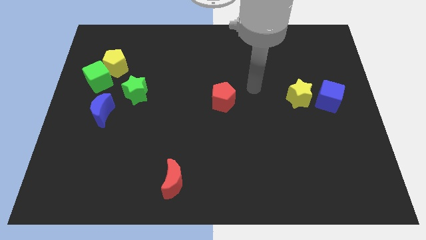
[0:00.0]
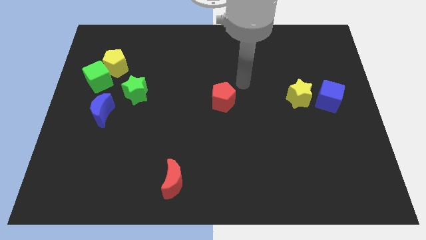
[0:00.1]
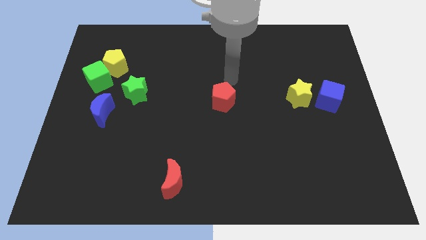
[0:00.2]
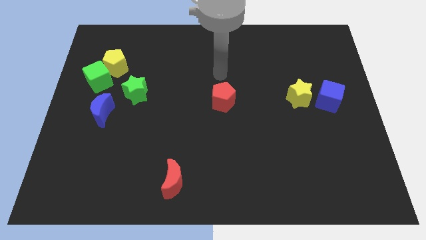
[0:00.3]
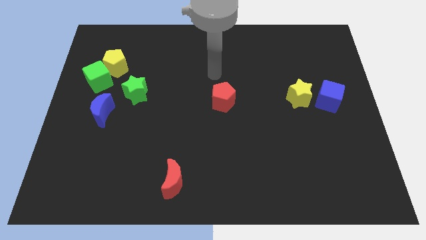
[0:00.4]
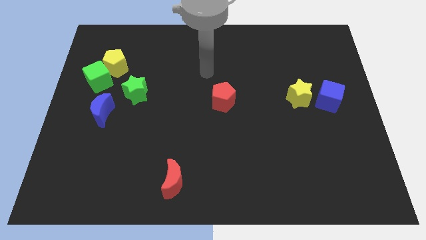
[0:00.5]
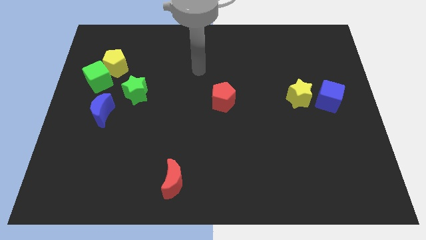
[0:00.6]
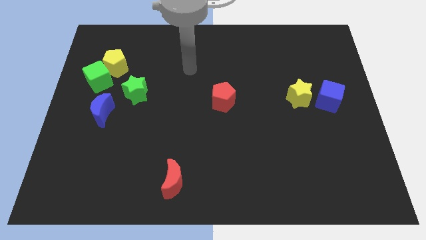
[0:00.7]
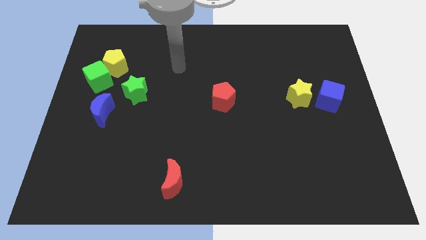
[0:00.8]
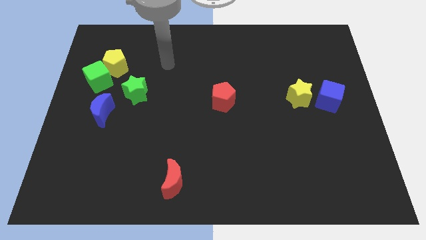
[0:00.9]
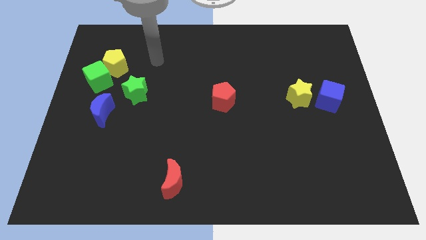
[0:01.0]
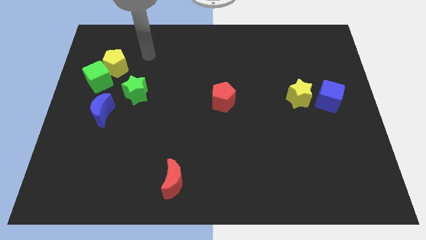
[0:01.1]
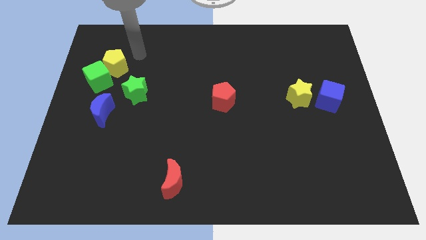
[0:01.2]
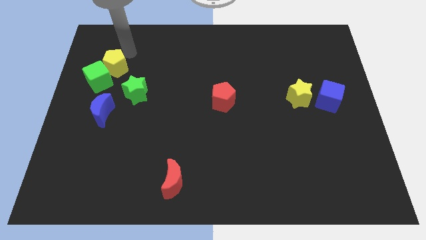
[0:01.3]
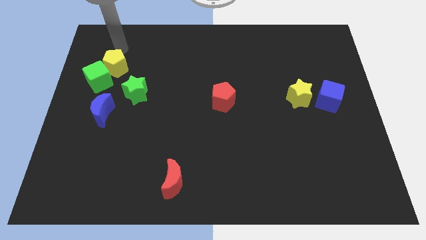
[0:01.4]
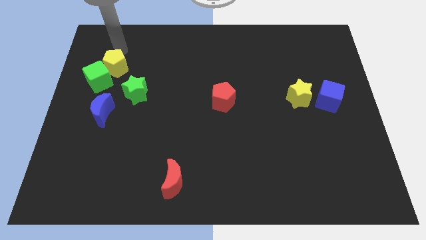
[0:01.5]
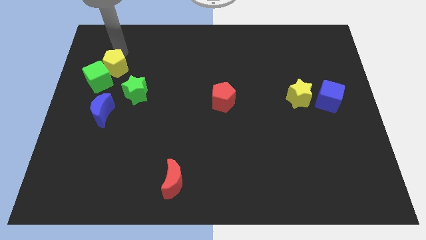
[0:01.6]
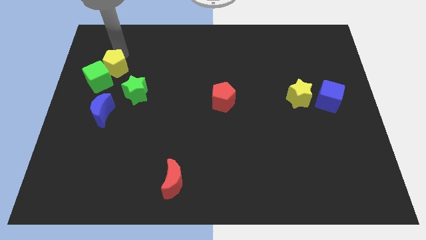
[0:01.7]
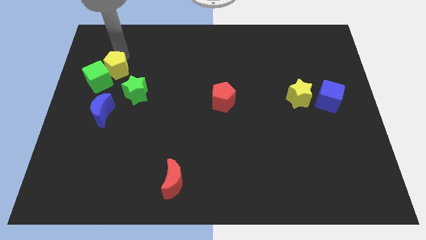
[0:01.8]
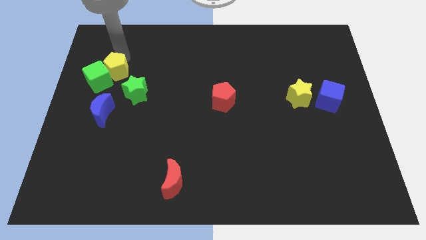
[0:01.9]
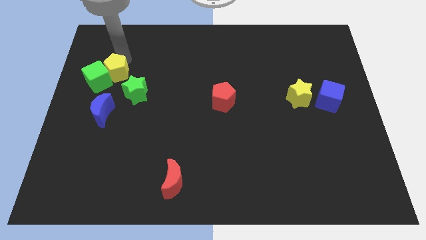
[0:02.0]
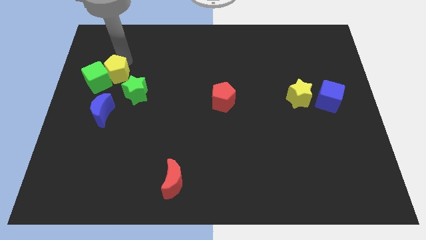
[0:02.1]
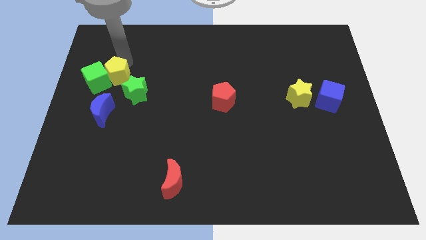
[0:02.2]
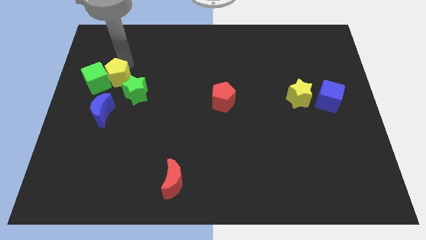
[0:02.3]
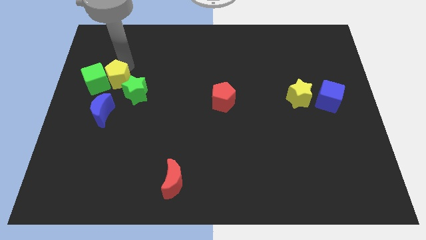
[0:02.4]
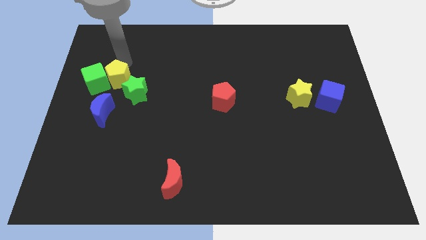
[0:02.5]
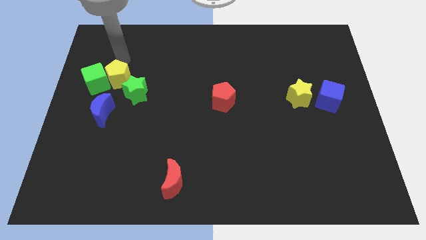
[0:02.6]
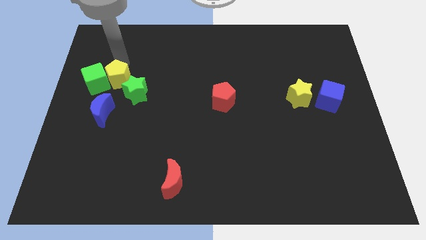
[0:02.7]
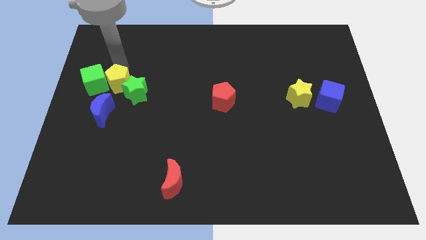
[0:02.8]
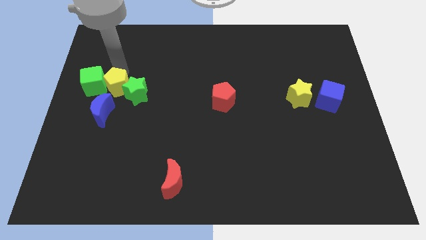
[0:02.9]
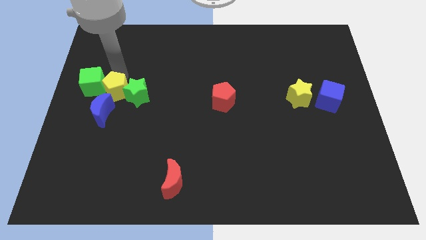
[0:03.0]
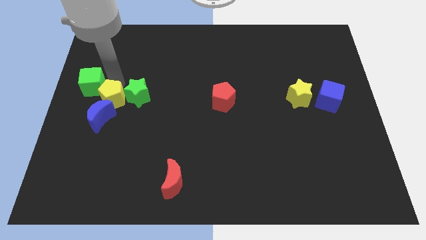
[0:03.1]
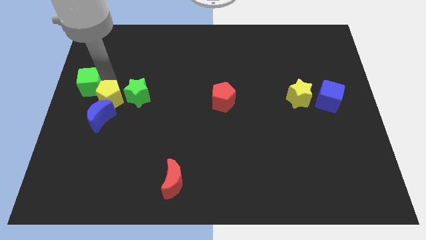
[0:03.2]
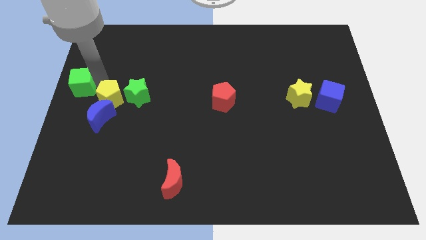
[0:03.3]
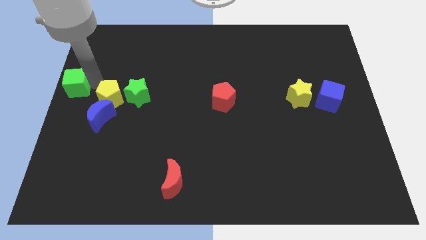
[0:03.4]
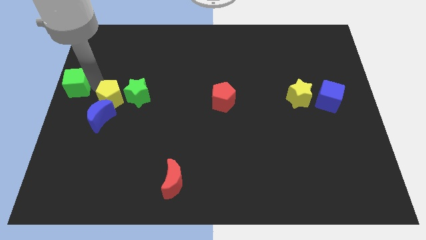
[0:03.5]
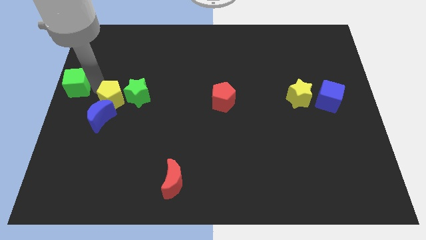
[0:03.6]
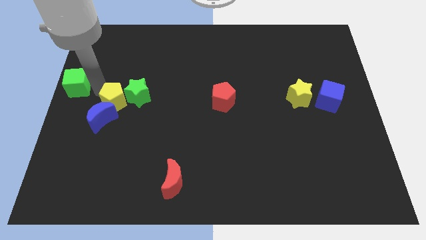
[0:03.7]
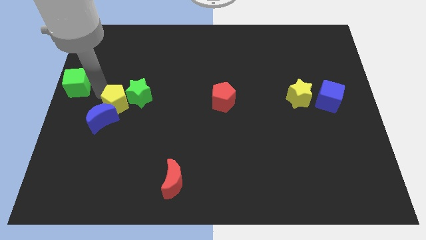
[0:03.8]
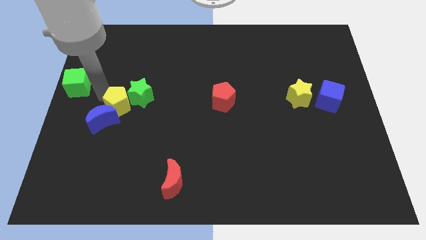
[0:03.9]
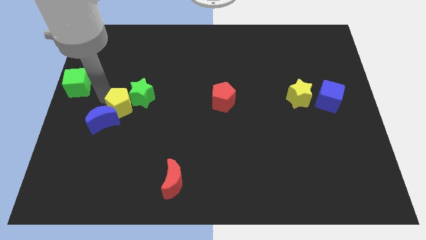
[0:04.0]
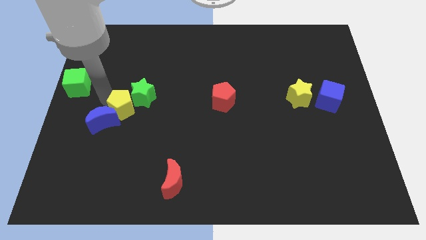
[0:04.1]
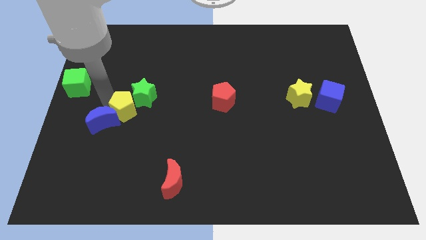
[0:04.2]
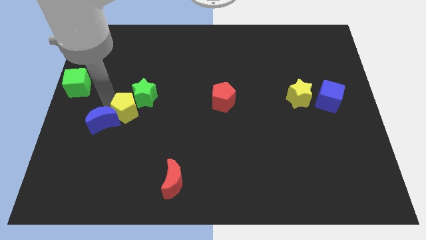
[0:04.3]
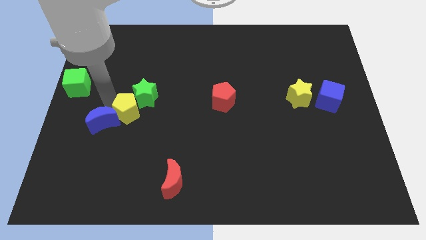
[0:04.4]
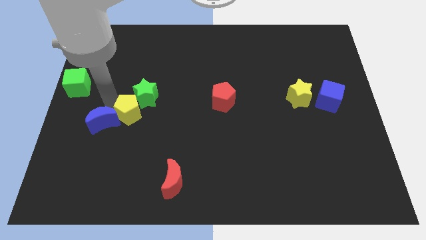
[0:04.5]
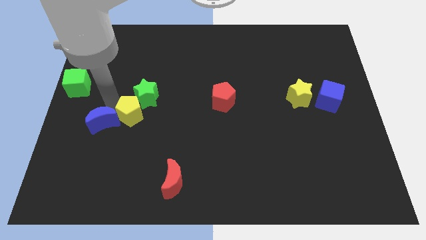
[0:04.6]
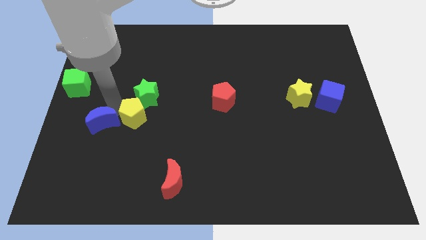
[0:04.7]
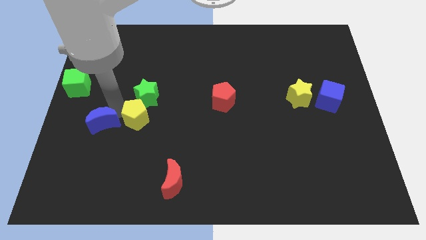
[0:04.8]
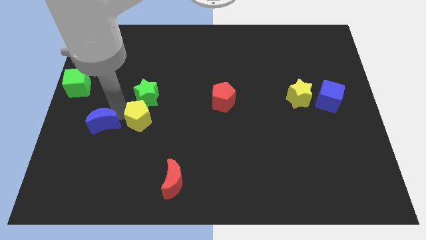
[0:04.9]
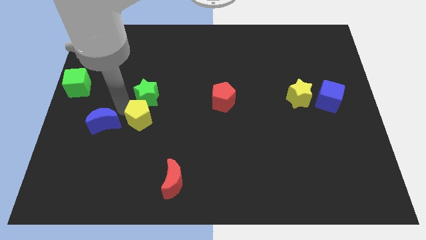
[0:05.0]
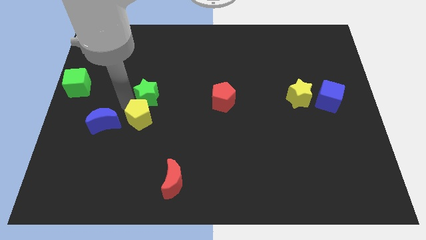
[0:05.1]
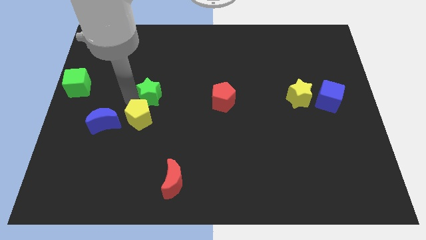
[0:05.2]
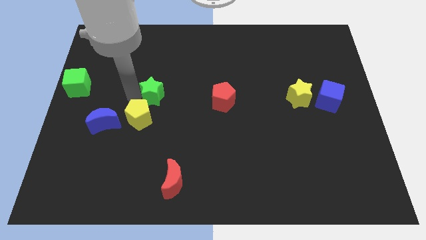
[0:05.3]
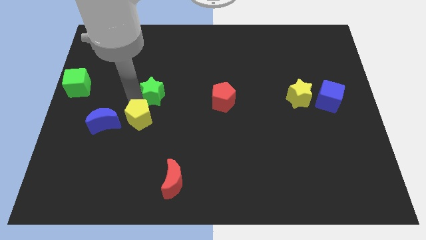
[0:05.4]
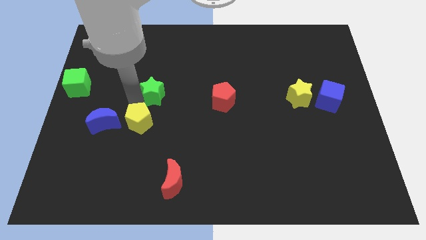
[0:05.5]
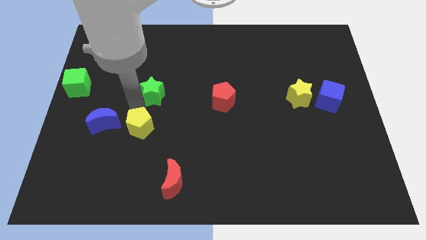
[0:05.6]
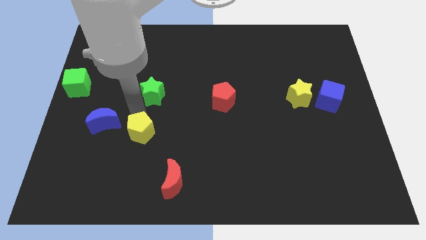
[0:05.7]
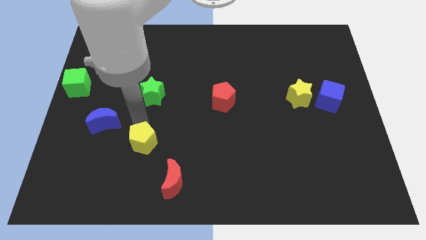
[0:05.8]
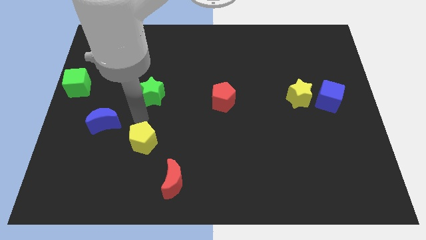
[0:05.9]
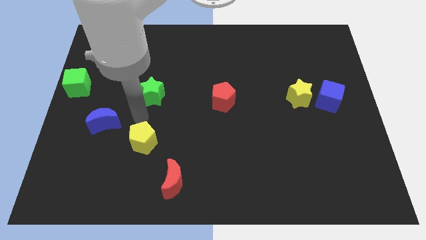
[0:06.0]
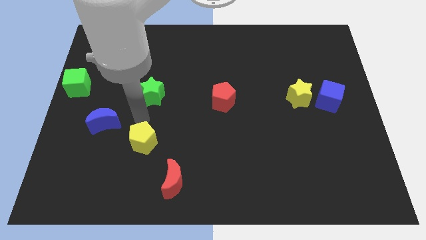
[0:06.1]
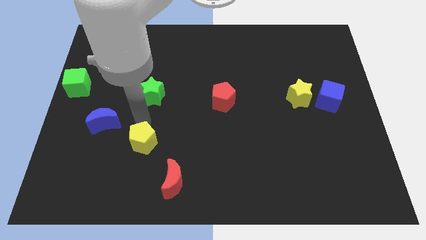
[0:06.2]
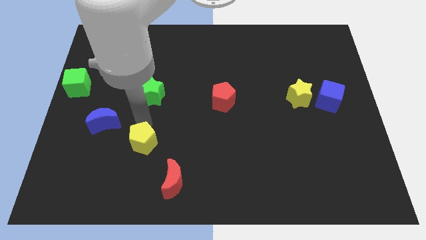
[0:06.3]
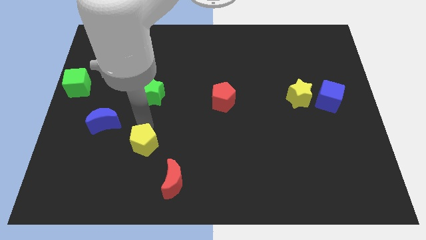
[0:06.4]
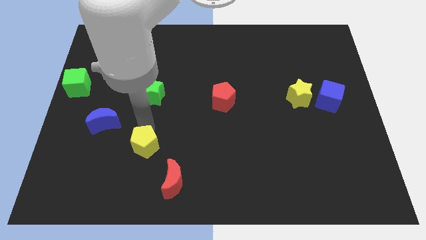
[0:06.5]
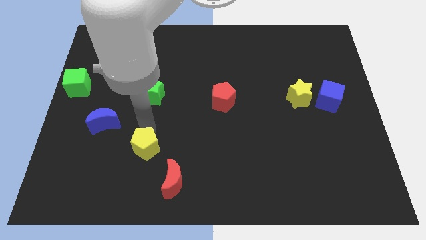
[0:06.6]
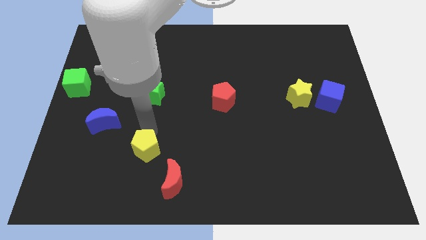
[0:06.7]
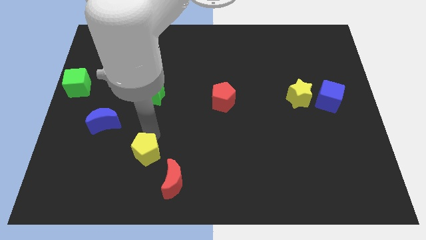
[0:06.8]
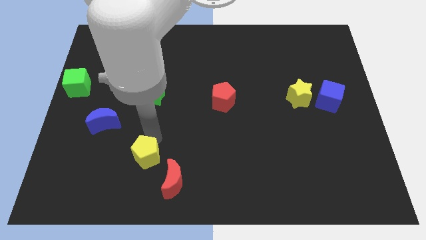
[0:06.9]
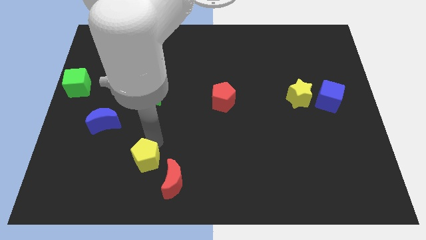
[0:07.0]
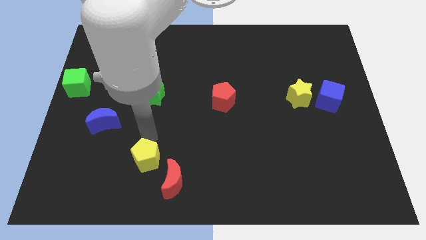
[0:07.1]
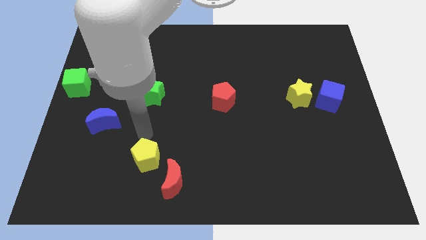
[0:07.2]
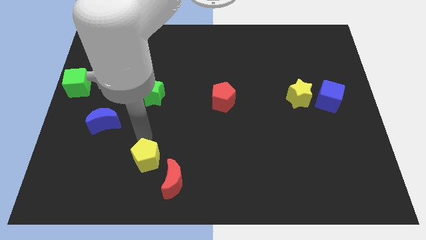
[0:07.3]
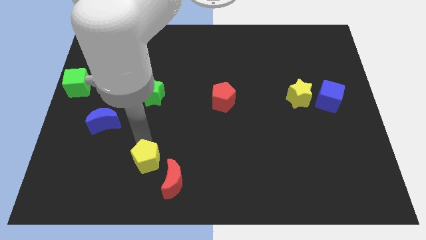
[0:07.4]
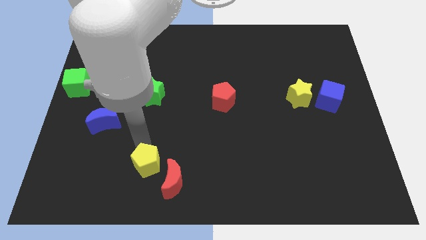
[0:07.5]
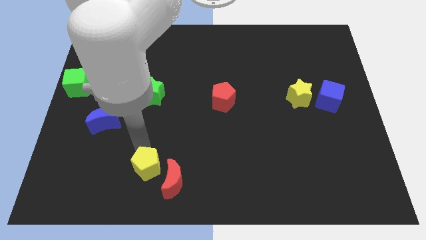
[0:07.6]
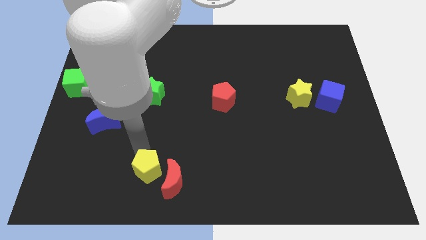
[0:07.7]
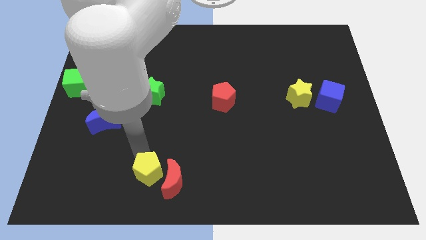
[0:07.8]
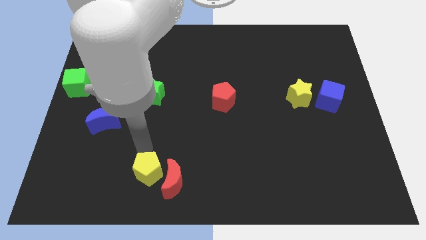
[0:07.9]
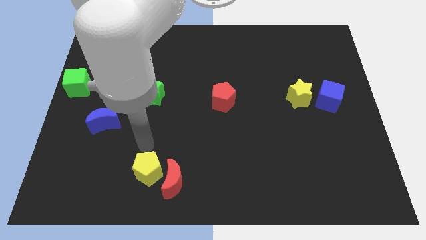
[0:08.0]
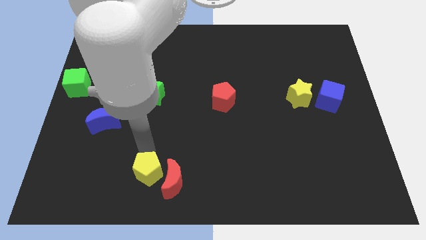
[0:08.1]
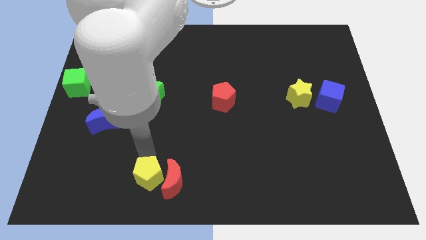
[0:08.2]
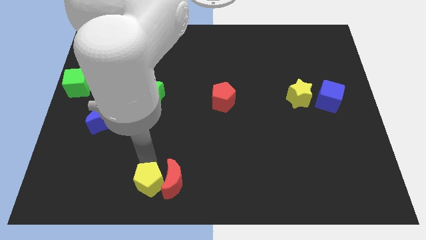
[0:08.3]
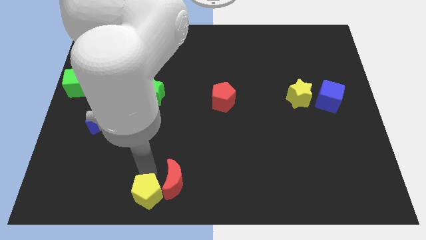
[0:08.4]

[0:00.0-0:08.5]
put the yellow pentagon to the bottom side
